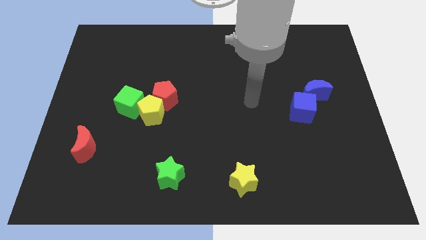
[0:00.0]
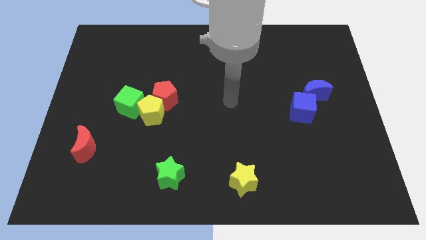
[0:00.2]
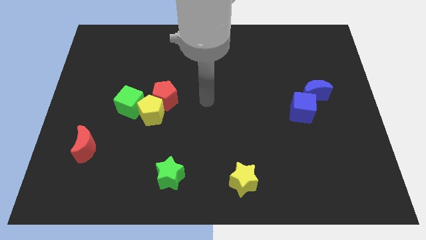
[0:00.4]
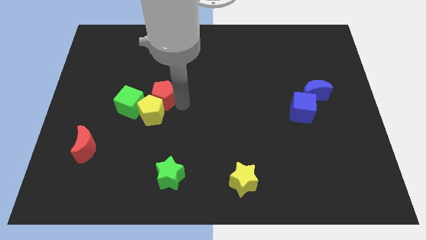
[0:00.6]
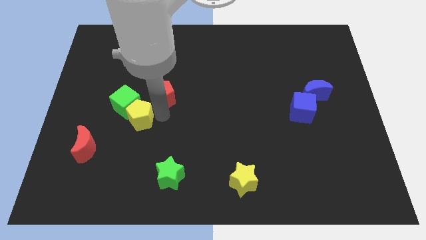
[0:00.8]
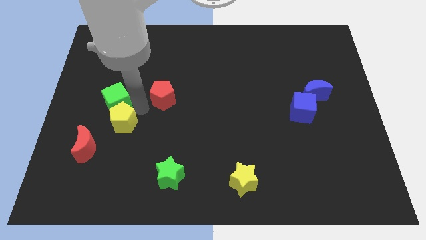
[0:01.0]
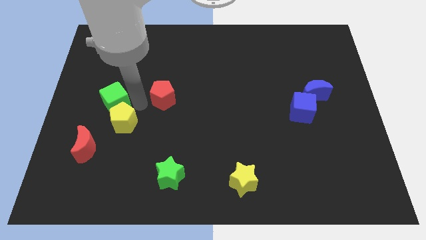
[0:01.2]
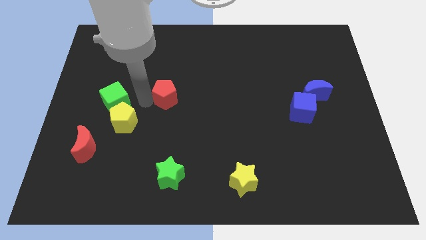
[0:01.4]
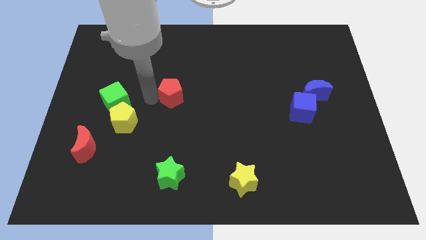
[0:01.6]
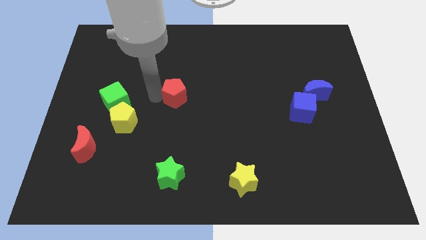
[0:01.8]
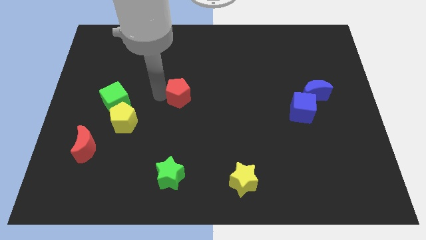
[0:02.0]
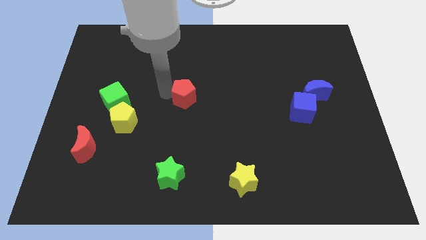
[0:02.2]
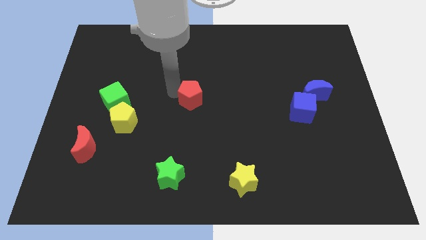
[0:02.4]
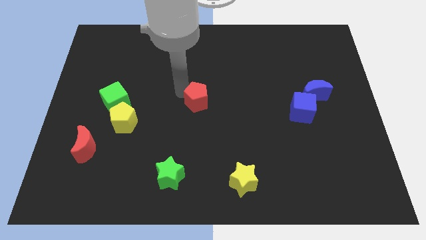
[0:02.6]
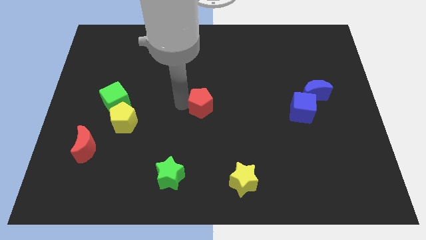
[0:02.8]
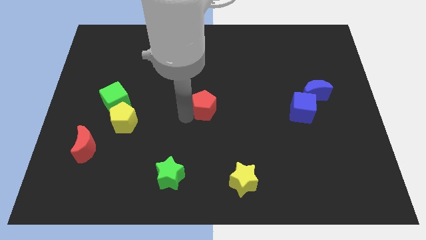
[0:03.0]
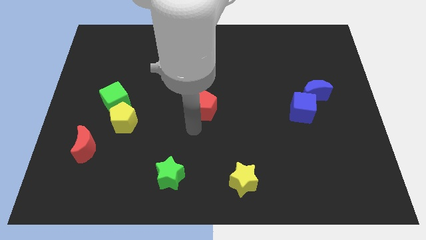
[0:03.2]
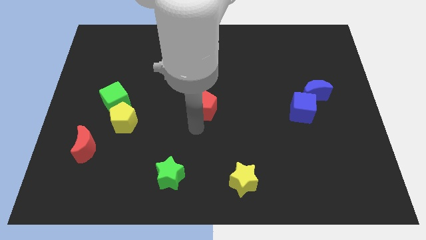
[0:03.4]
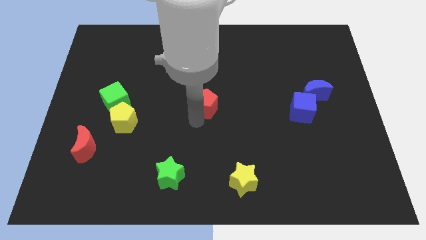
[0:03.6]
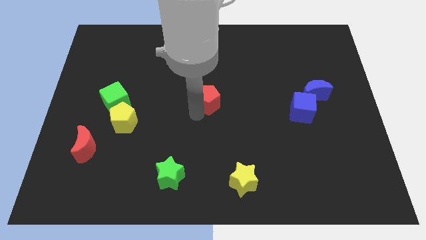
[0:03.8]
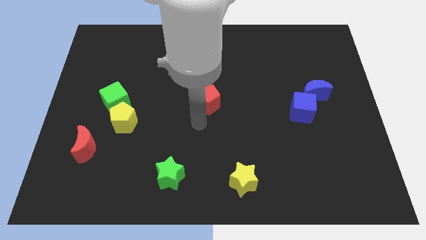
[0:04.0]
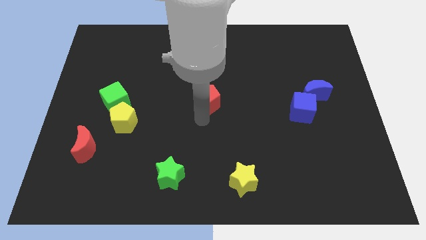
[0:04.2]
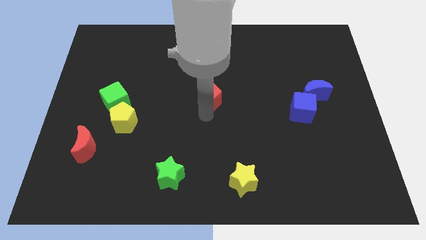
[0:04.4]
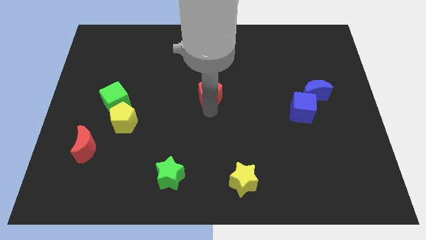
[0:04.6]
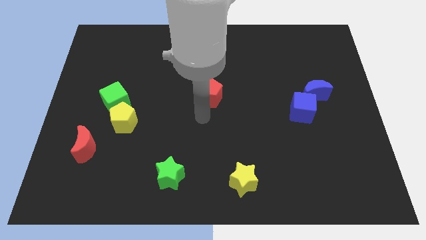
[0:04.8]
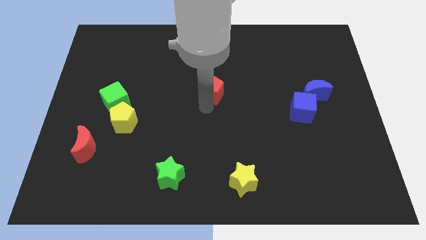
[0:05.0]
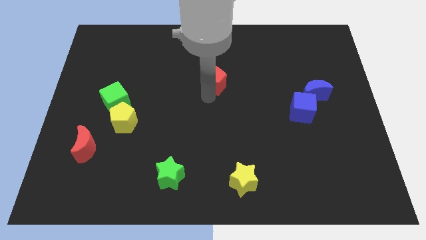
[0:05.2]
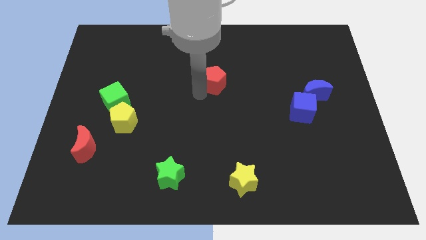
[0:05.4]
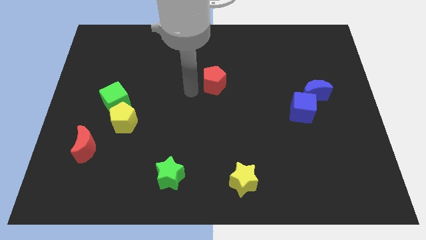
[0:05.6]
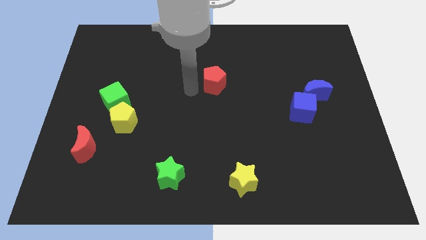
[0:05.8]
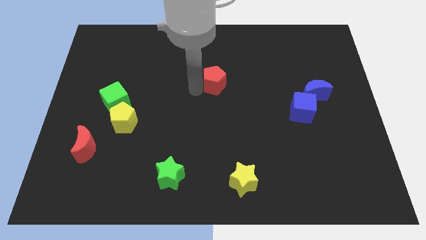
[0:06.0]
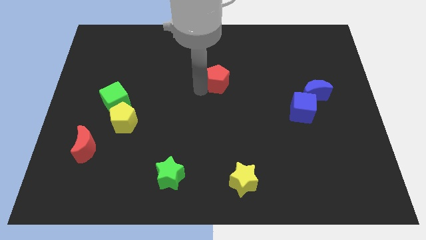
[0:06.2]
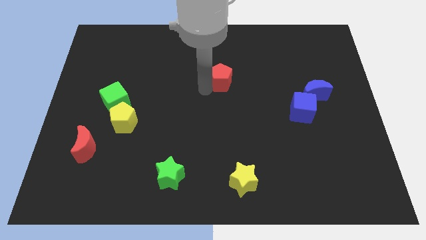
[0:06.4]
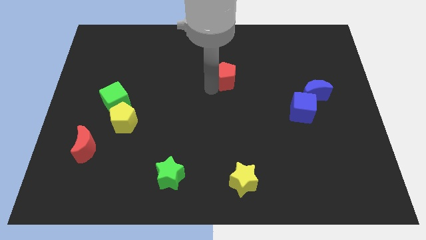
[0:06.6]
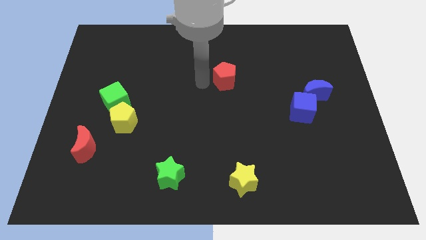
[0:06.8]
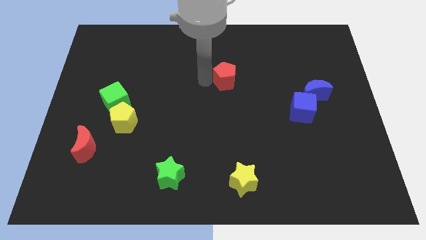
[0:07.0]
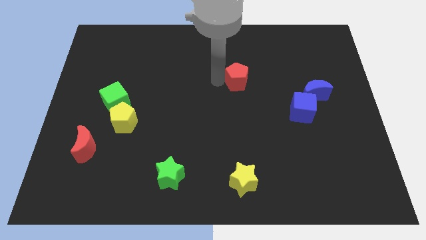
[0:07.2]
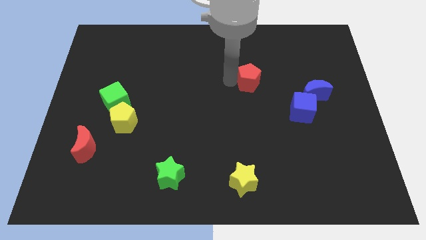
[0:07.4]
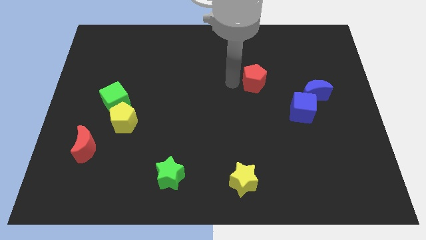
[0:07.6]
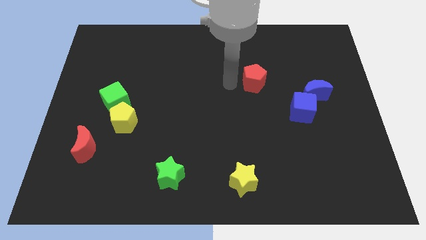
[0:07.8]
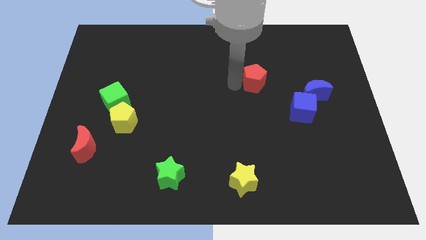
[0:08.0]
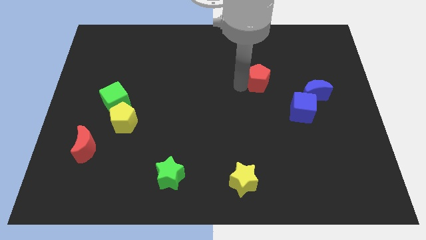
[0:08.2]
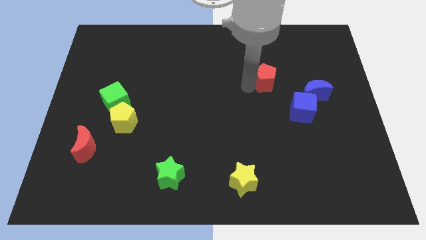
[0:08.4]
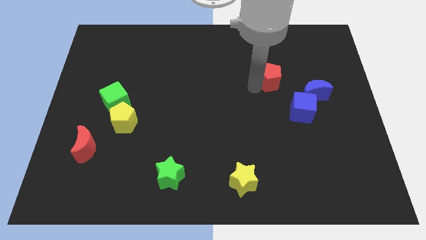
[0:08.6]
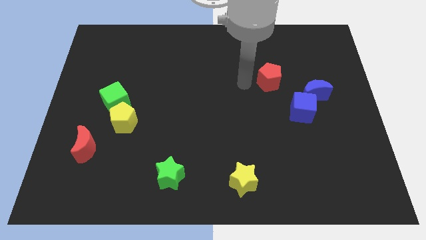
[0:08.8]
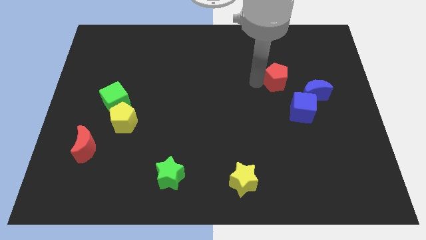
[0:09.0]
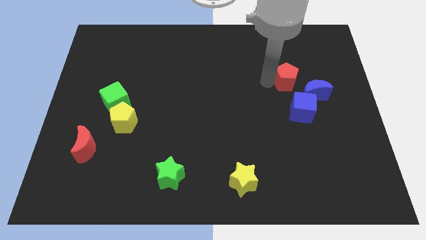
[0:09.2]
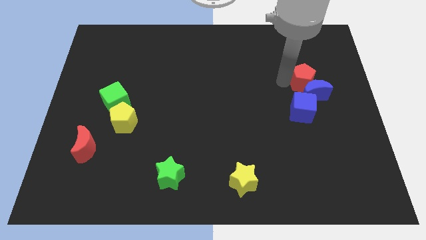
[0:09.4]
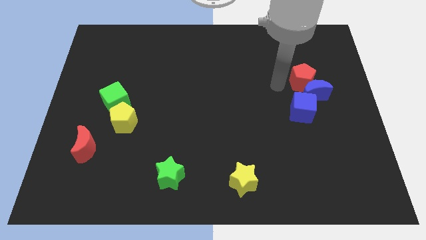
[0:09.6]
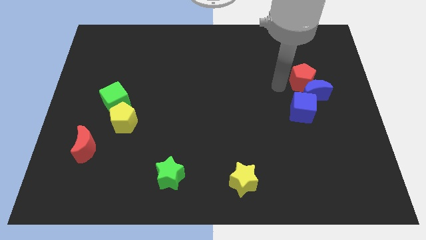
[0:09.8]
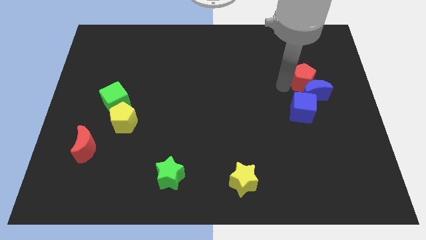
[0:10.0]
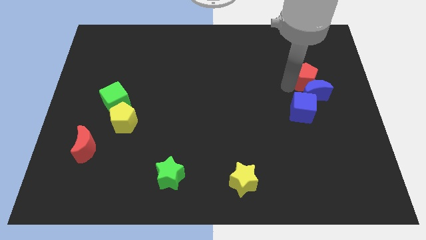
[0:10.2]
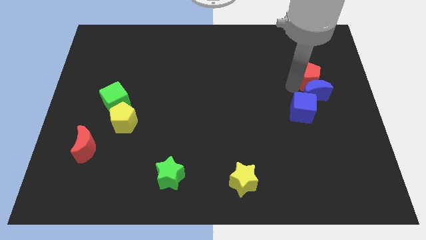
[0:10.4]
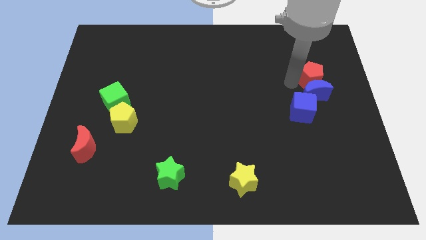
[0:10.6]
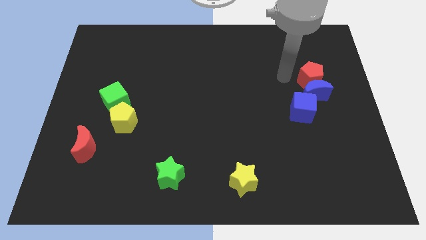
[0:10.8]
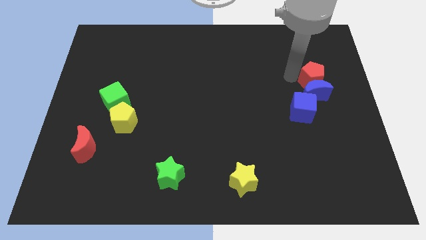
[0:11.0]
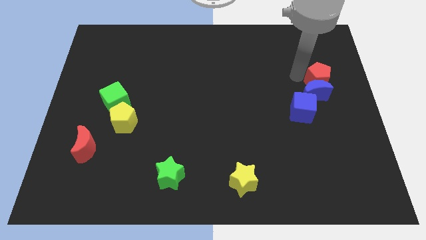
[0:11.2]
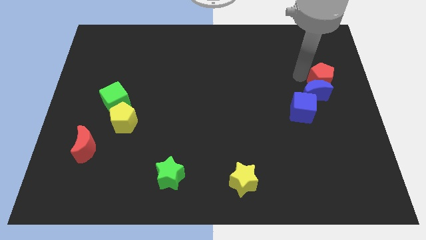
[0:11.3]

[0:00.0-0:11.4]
push the red pentagon to the center right
